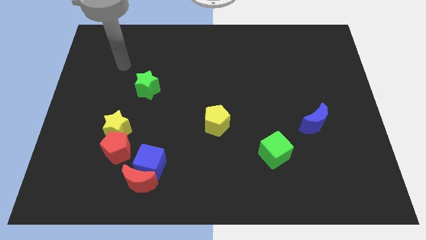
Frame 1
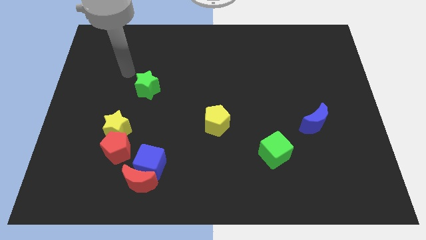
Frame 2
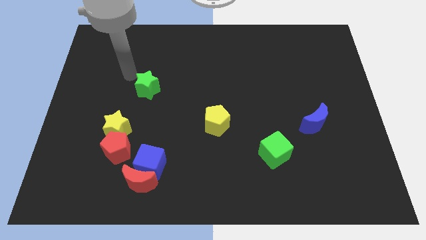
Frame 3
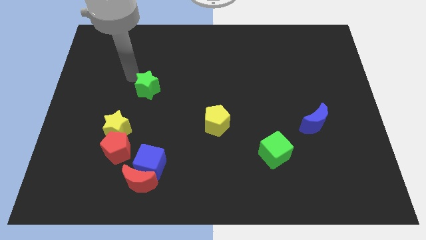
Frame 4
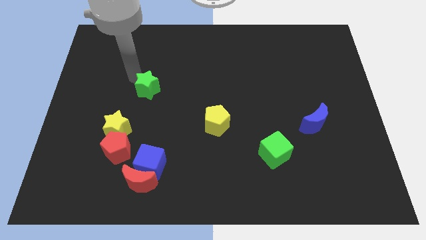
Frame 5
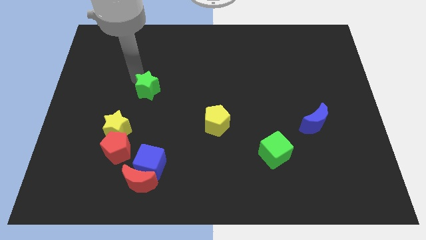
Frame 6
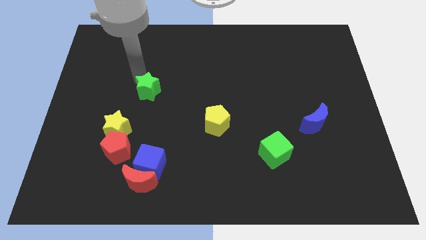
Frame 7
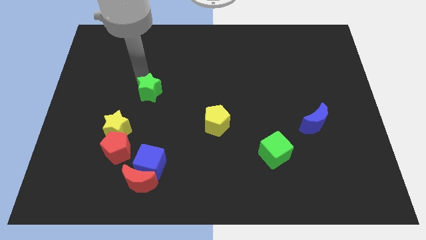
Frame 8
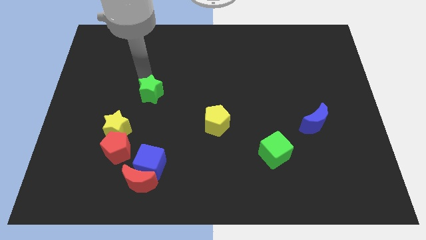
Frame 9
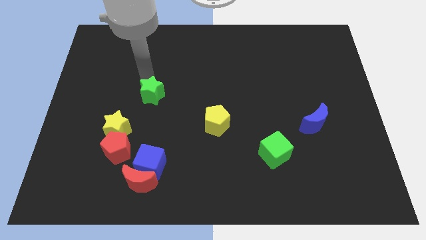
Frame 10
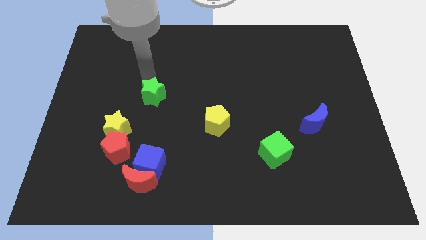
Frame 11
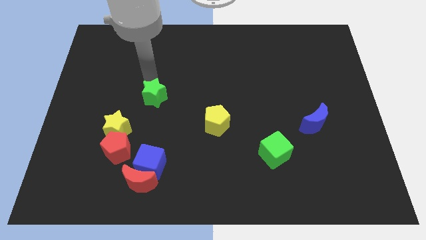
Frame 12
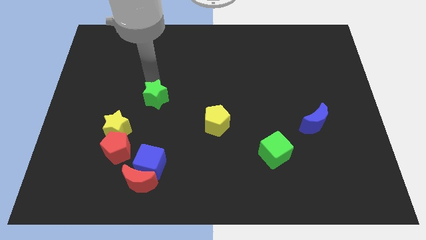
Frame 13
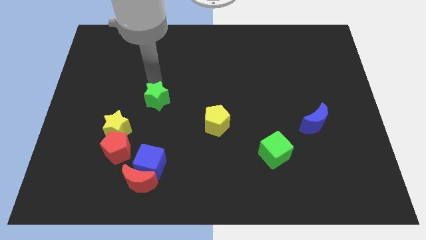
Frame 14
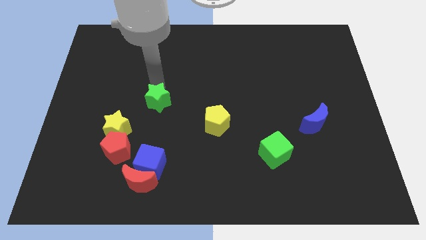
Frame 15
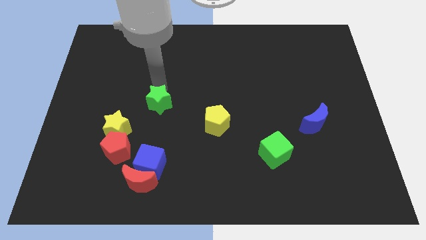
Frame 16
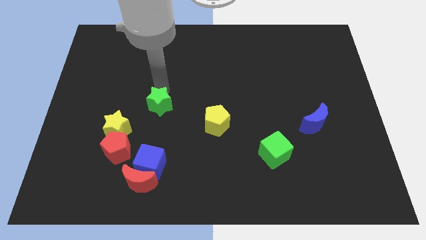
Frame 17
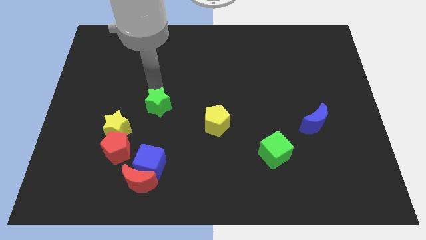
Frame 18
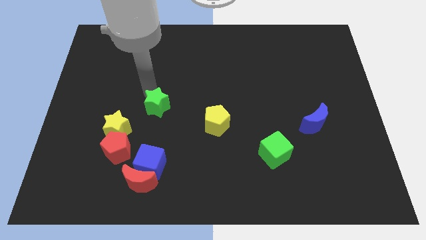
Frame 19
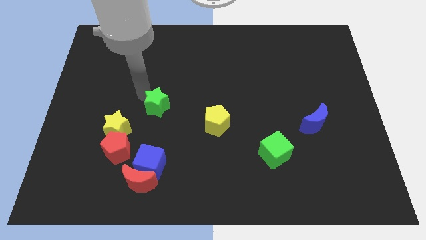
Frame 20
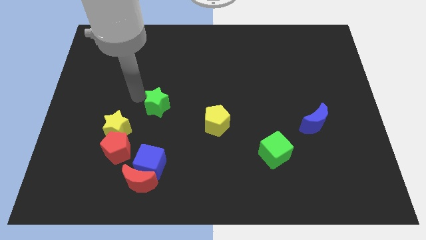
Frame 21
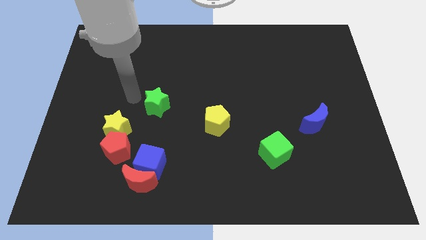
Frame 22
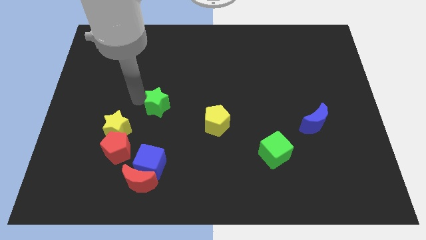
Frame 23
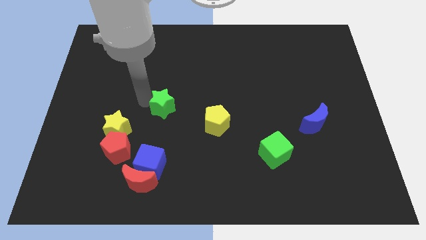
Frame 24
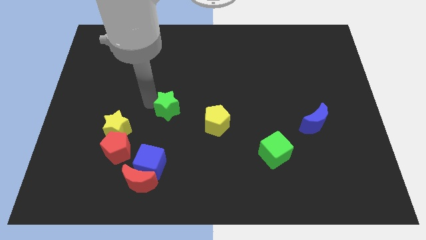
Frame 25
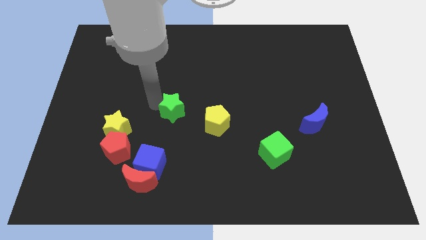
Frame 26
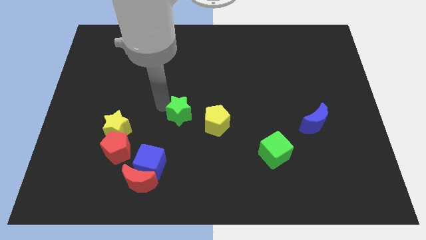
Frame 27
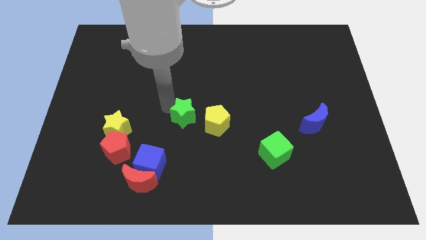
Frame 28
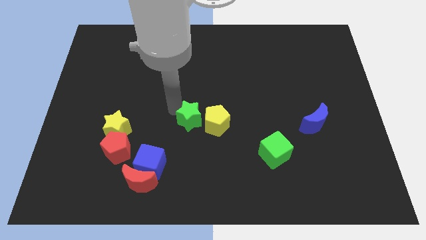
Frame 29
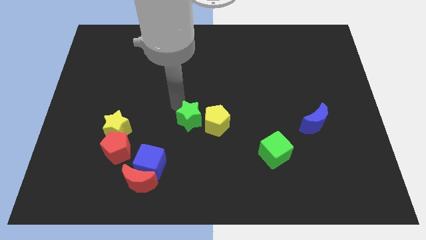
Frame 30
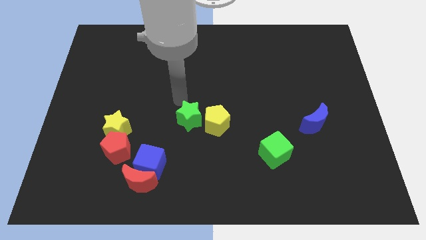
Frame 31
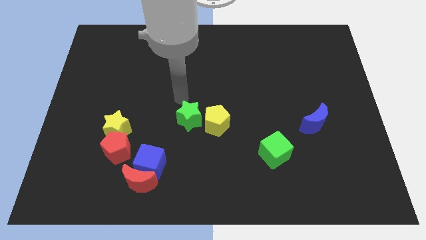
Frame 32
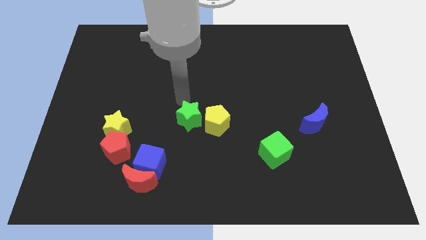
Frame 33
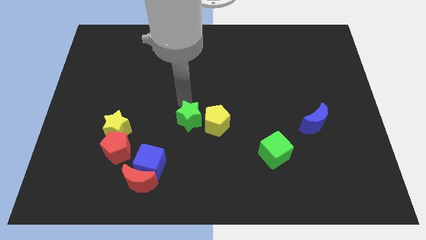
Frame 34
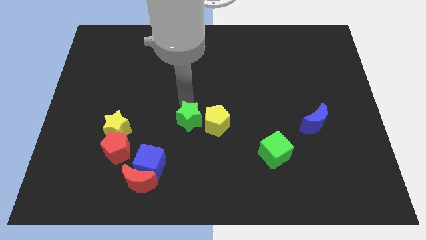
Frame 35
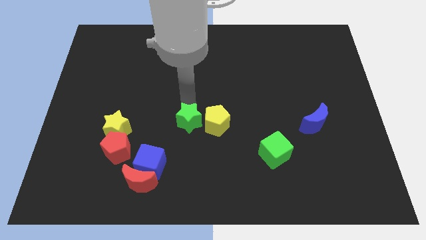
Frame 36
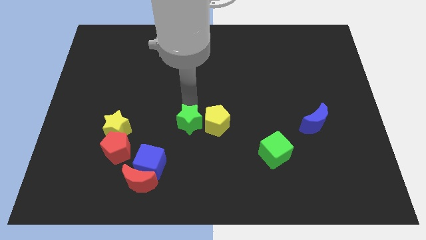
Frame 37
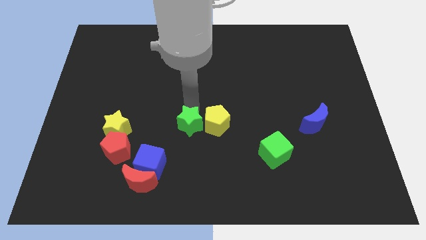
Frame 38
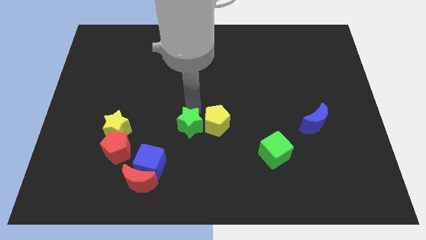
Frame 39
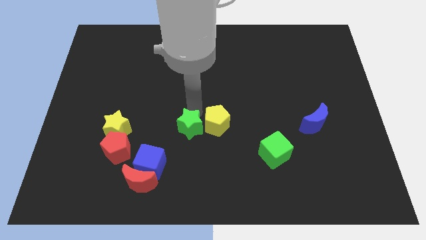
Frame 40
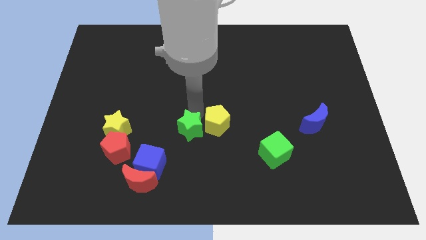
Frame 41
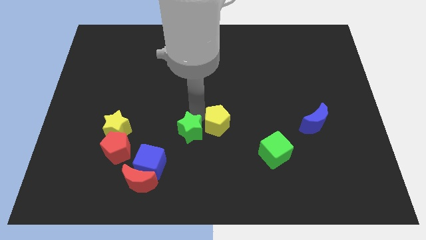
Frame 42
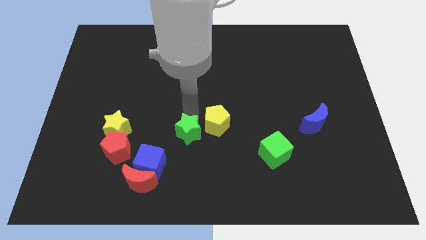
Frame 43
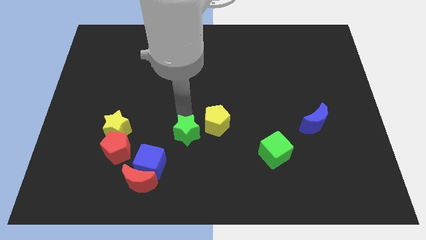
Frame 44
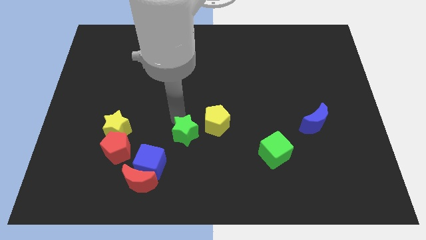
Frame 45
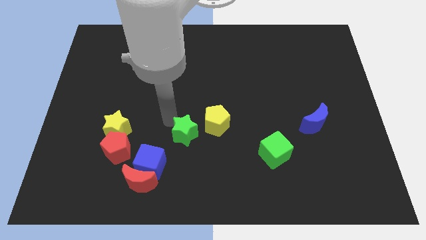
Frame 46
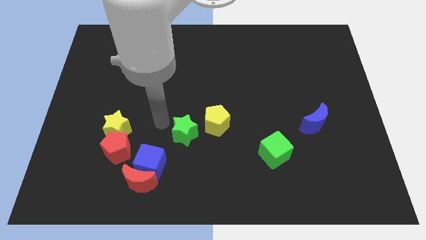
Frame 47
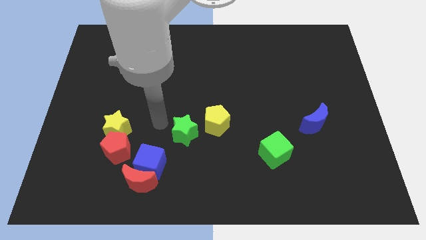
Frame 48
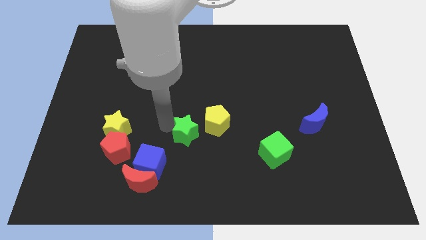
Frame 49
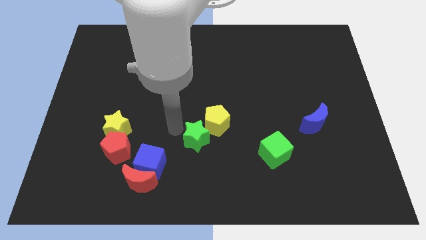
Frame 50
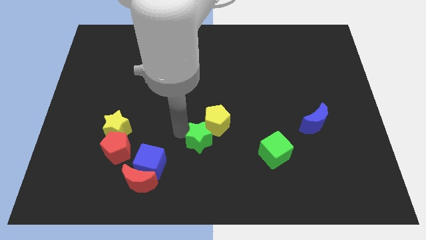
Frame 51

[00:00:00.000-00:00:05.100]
slide the green star downwards and then to the right

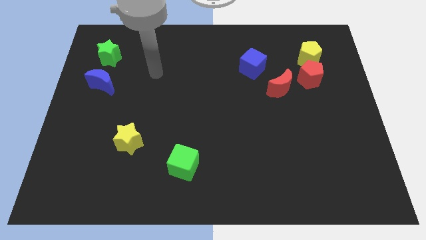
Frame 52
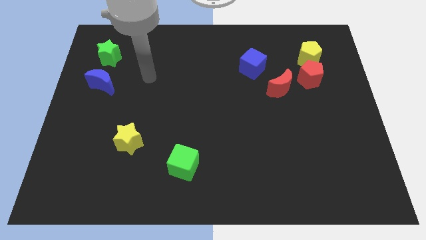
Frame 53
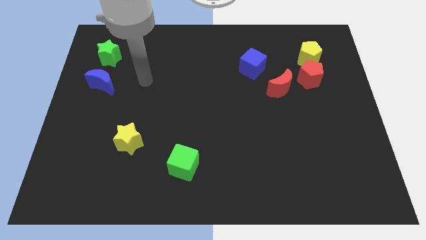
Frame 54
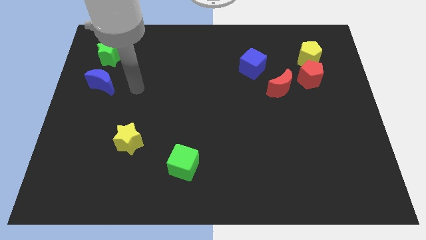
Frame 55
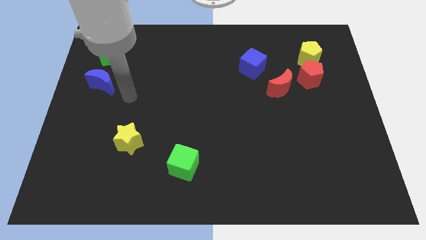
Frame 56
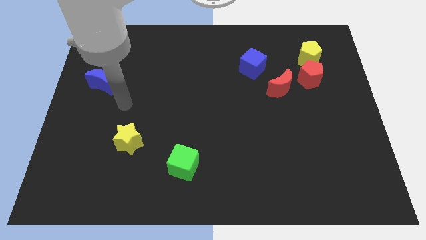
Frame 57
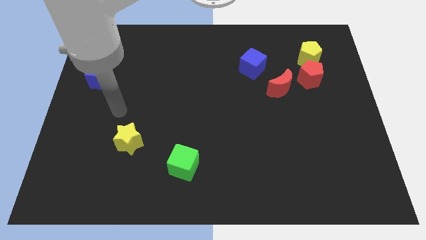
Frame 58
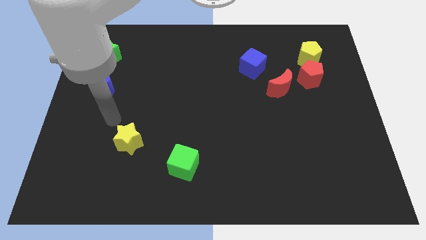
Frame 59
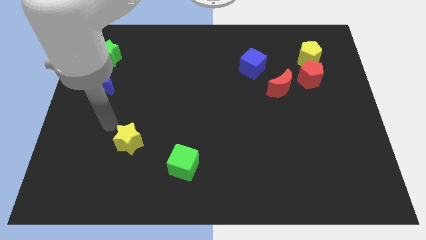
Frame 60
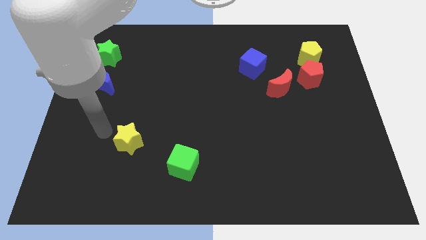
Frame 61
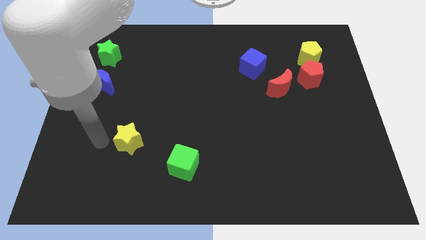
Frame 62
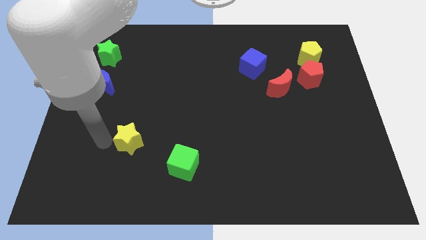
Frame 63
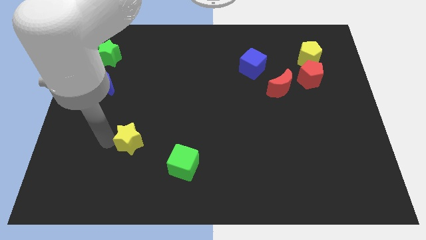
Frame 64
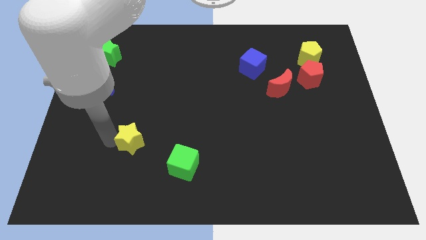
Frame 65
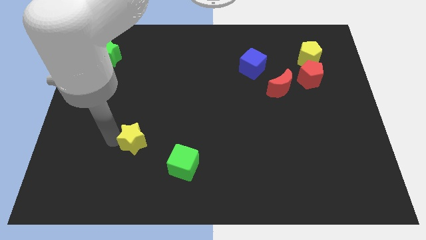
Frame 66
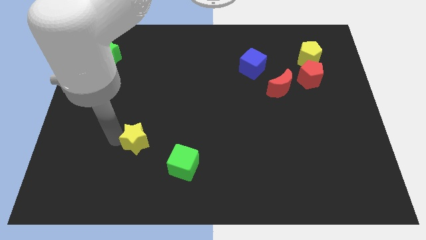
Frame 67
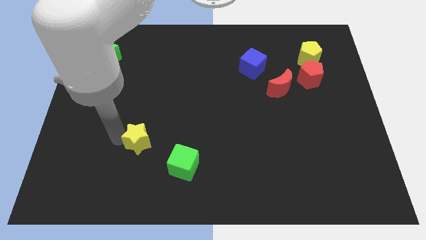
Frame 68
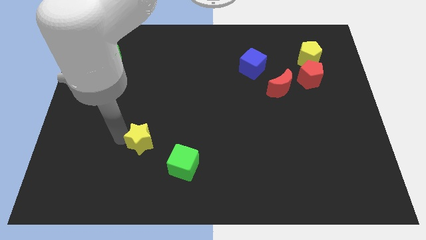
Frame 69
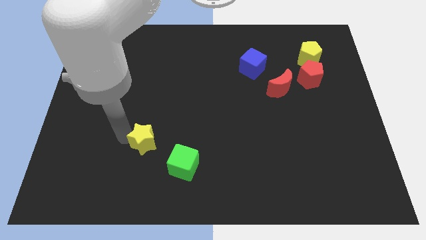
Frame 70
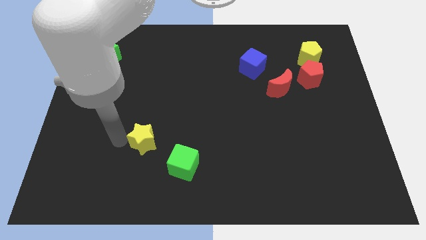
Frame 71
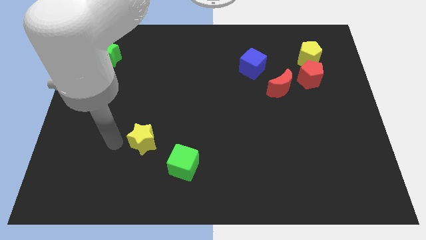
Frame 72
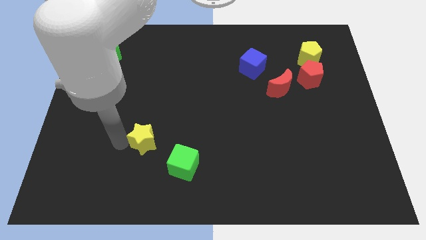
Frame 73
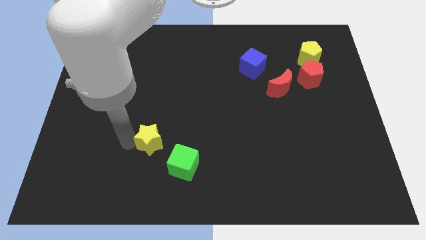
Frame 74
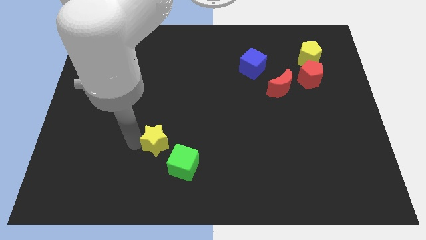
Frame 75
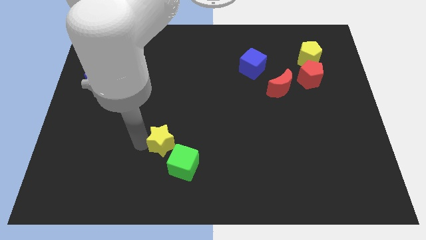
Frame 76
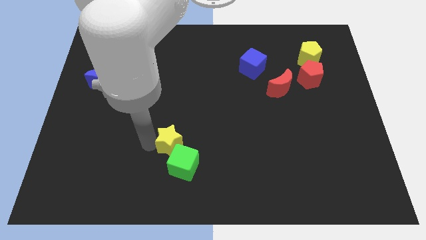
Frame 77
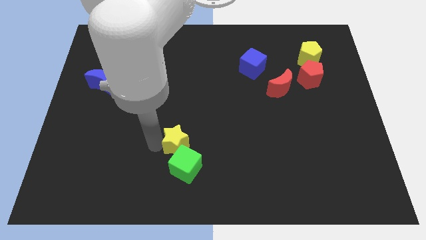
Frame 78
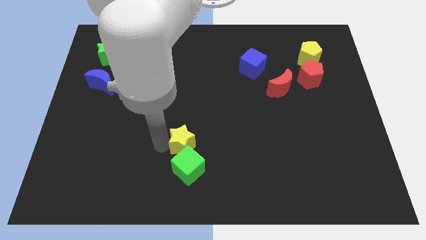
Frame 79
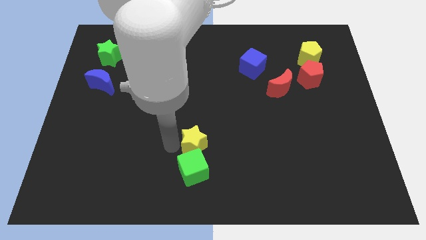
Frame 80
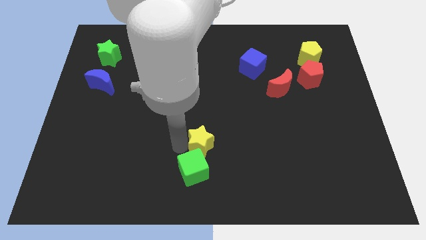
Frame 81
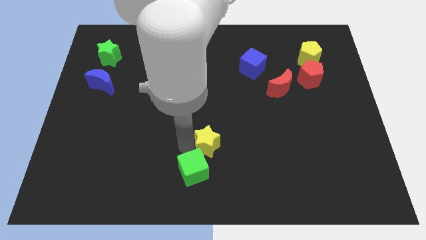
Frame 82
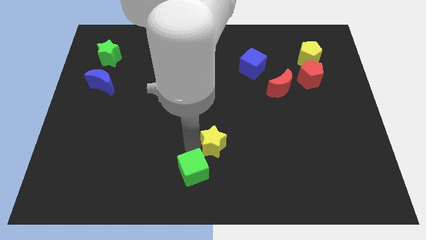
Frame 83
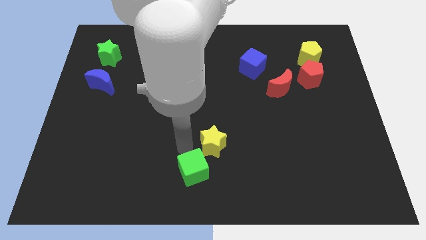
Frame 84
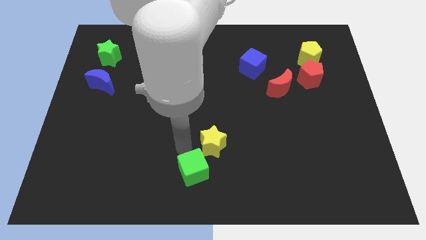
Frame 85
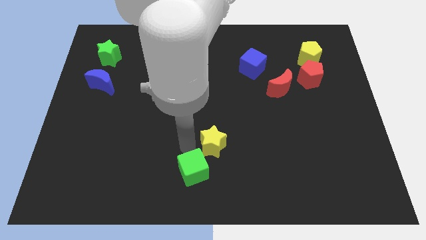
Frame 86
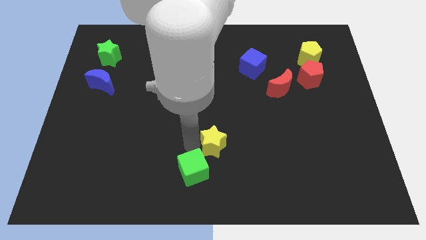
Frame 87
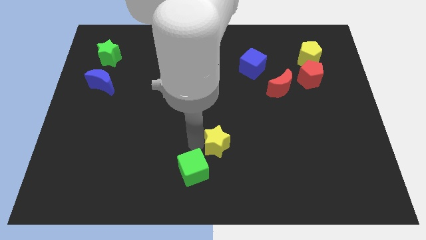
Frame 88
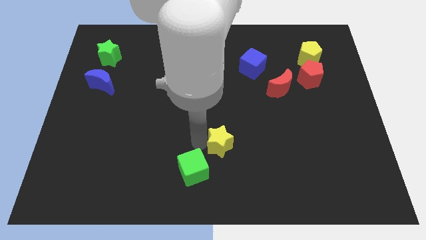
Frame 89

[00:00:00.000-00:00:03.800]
move the yellow star right
